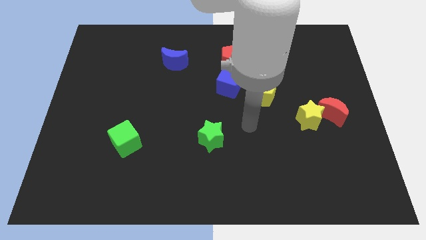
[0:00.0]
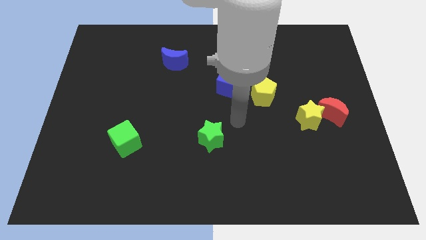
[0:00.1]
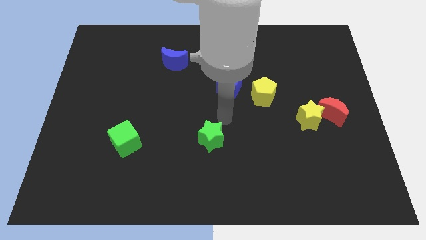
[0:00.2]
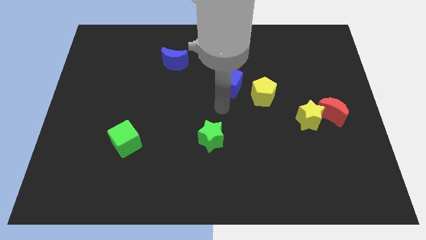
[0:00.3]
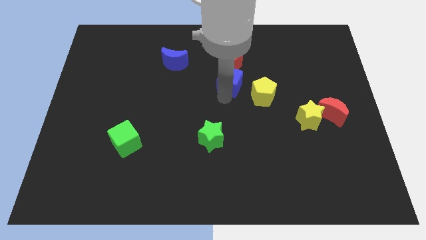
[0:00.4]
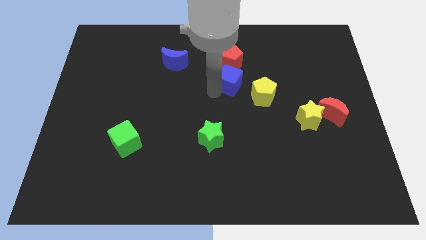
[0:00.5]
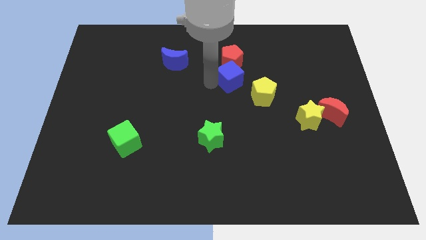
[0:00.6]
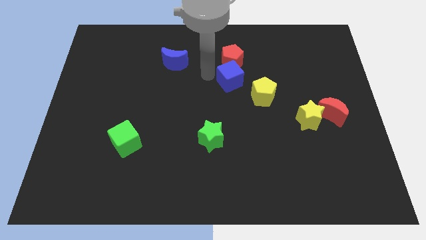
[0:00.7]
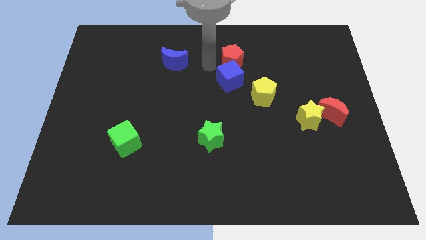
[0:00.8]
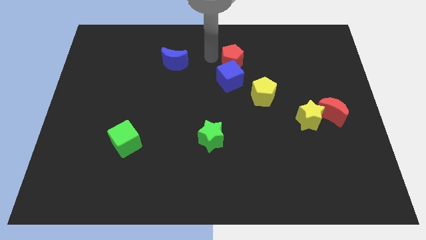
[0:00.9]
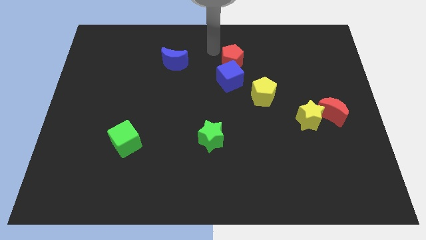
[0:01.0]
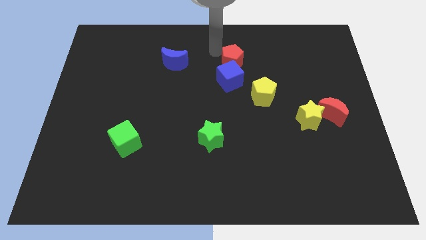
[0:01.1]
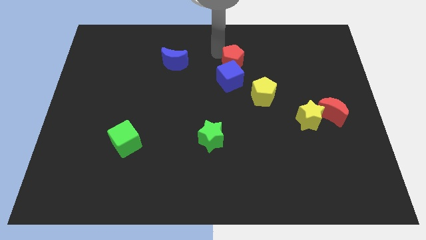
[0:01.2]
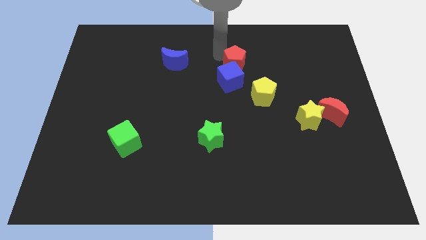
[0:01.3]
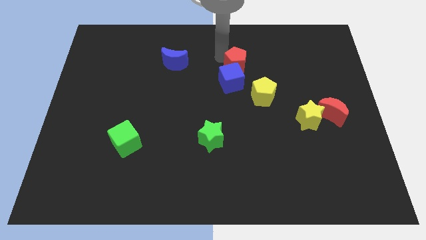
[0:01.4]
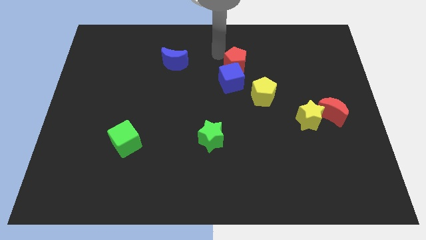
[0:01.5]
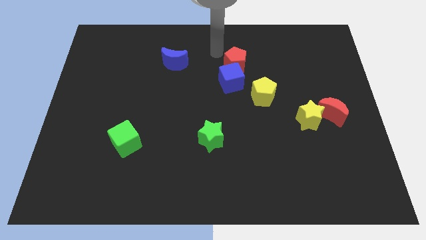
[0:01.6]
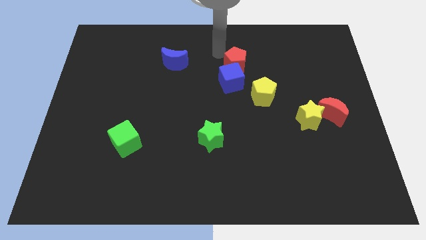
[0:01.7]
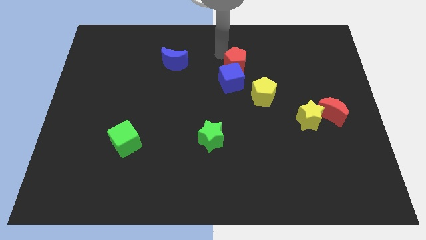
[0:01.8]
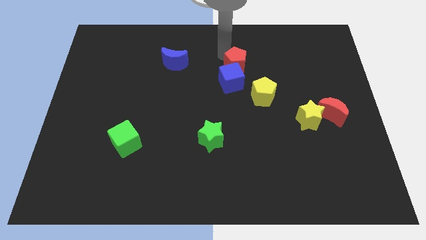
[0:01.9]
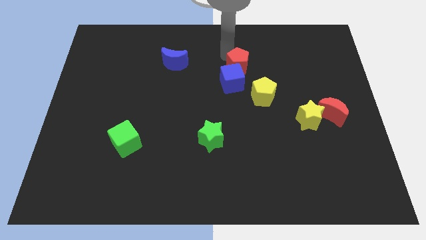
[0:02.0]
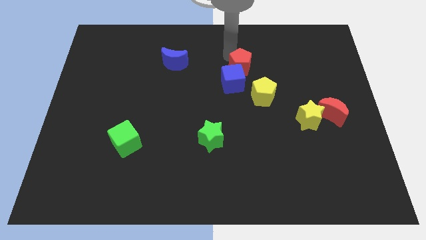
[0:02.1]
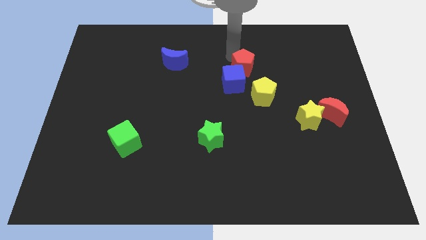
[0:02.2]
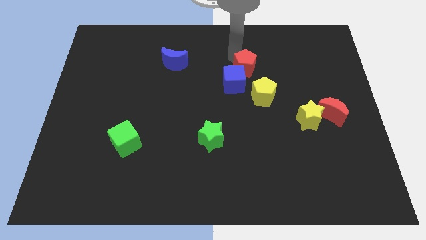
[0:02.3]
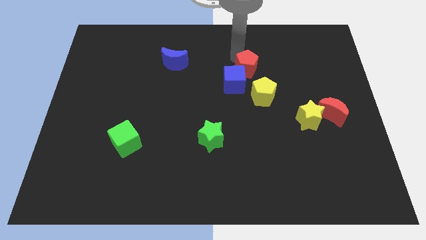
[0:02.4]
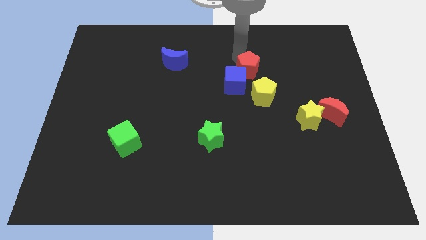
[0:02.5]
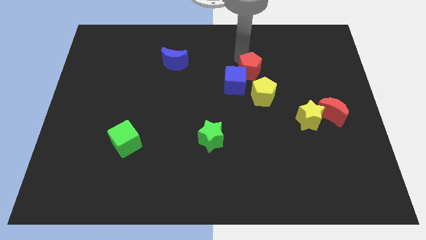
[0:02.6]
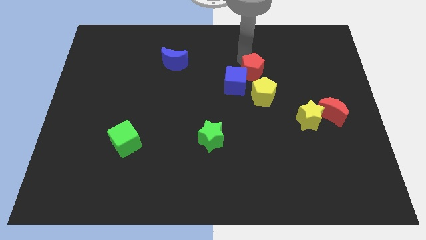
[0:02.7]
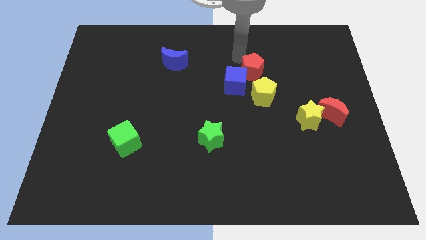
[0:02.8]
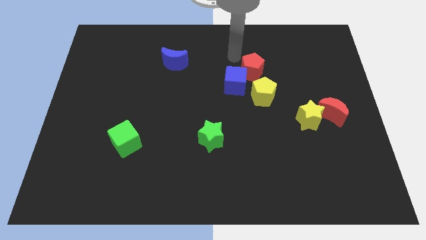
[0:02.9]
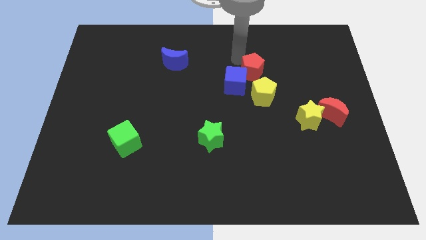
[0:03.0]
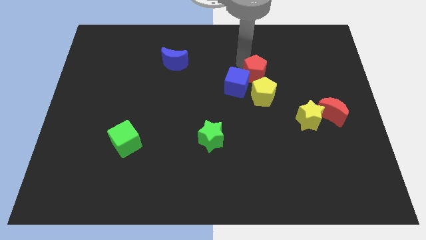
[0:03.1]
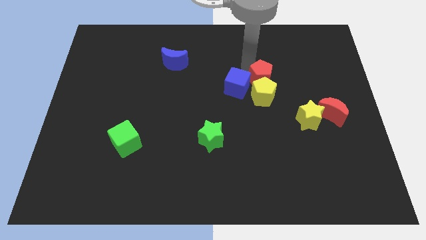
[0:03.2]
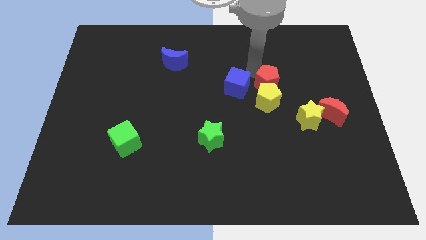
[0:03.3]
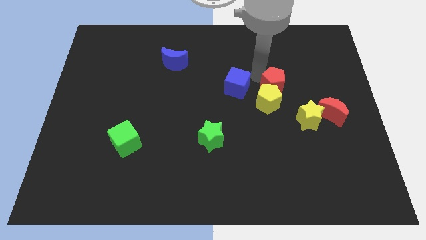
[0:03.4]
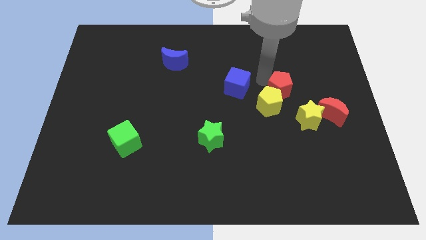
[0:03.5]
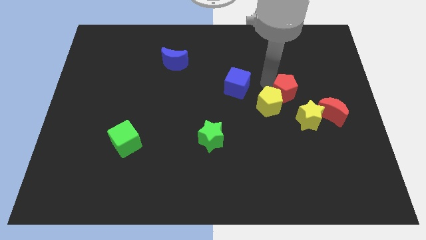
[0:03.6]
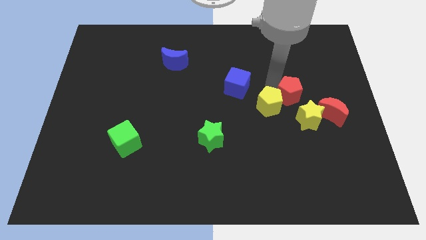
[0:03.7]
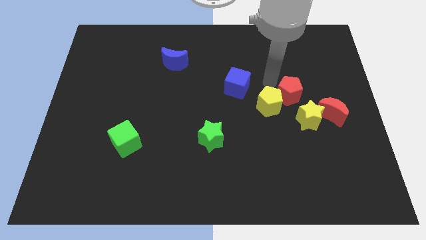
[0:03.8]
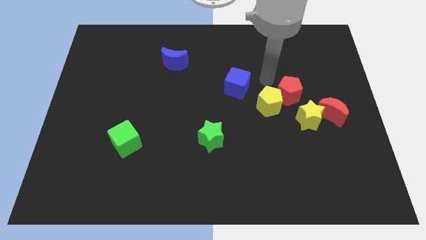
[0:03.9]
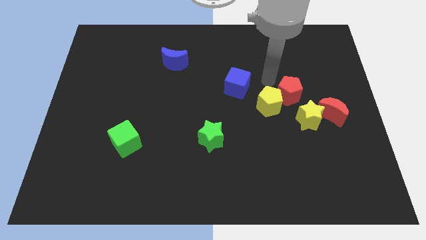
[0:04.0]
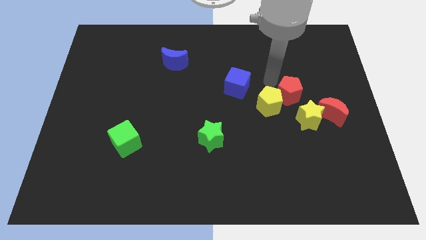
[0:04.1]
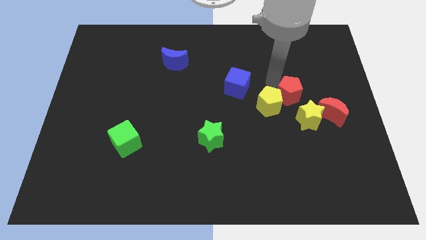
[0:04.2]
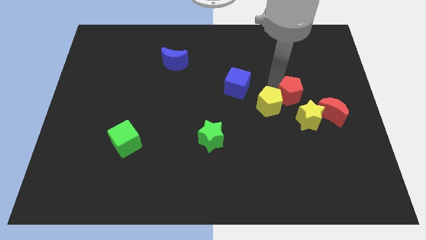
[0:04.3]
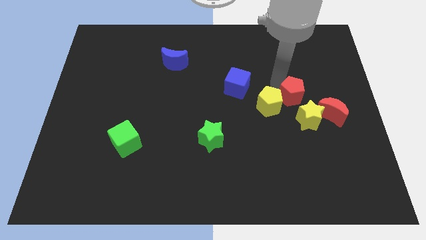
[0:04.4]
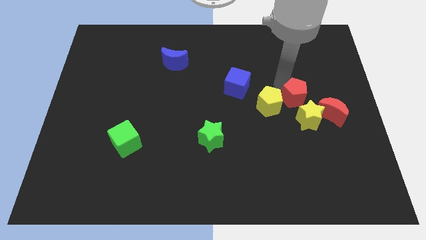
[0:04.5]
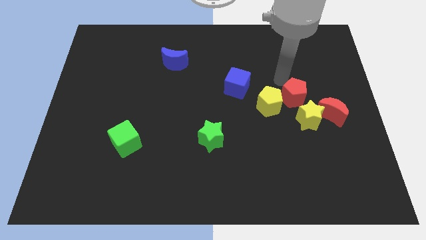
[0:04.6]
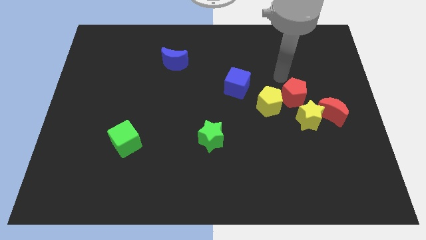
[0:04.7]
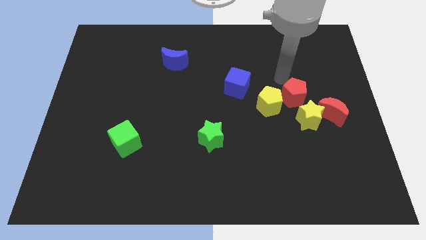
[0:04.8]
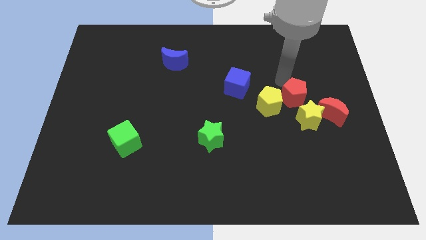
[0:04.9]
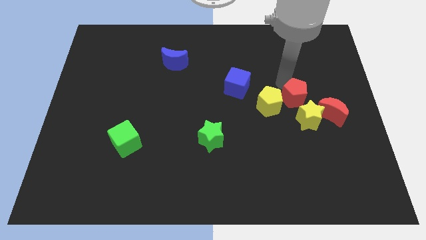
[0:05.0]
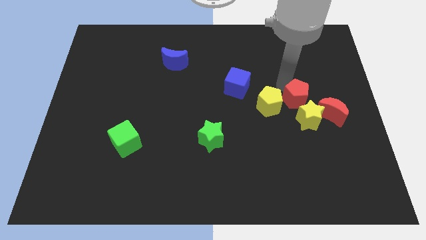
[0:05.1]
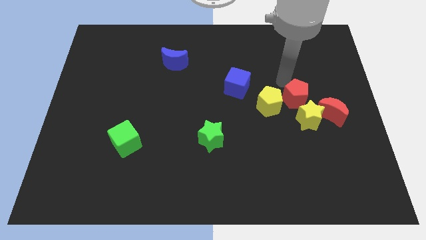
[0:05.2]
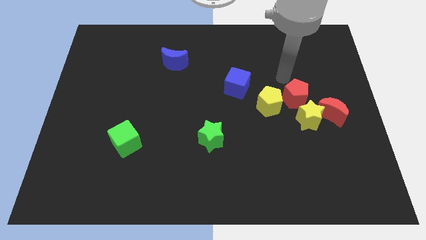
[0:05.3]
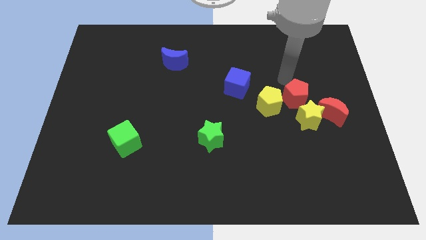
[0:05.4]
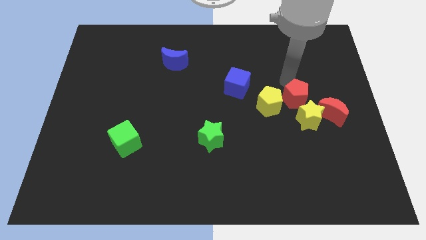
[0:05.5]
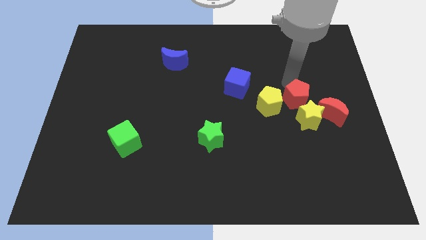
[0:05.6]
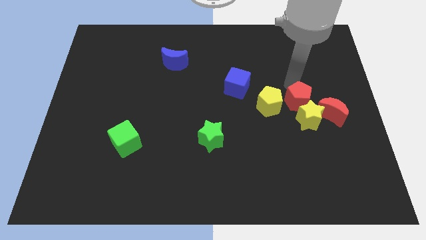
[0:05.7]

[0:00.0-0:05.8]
push the red pentagon close to the yellow star

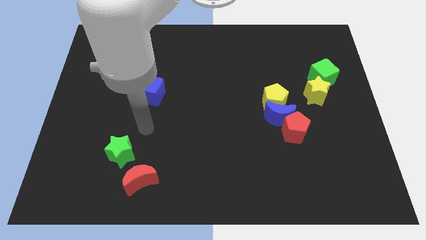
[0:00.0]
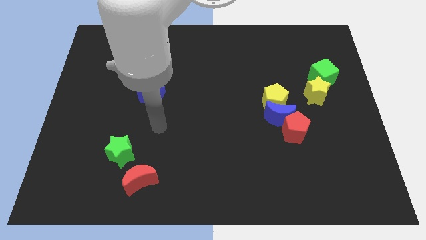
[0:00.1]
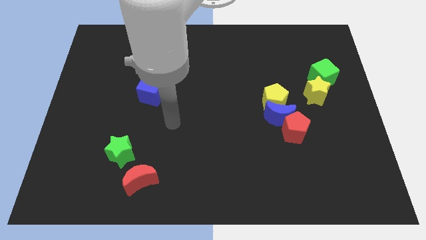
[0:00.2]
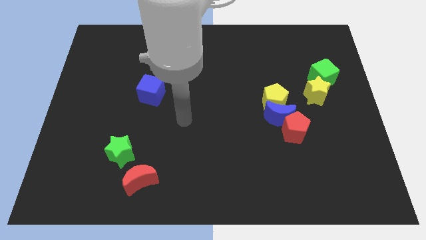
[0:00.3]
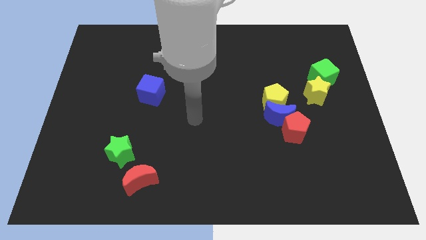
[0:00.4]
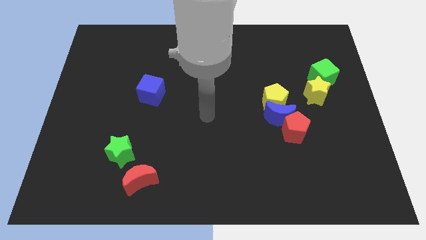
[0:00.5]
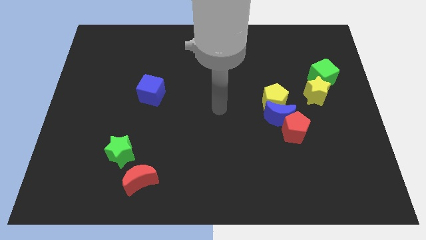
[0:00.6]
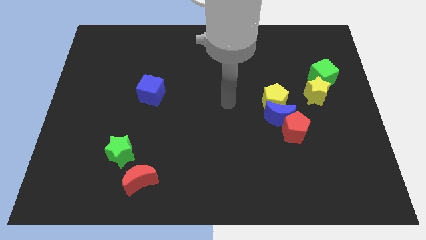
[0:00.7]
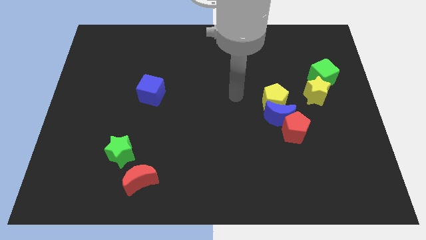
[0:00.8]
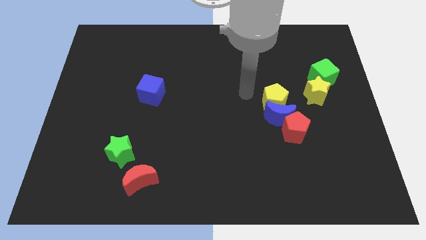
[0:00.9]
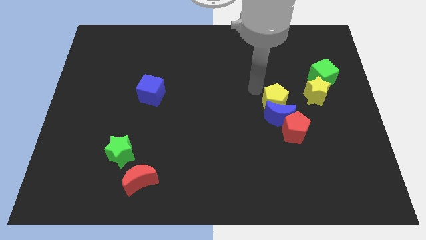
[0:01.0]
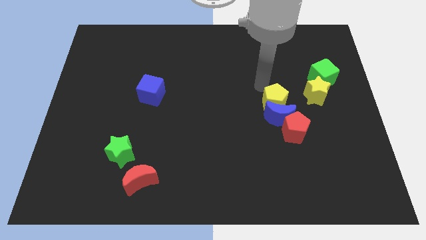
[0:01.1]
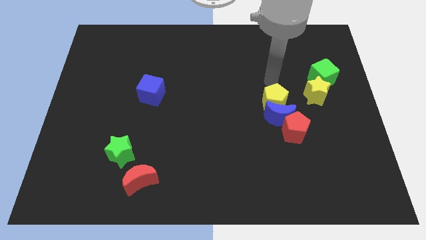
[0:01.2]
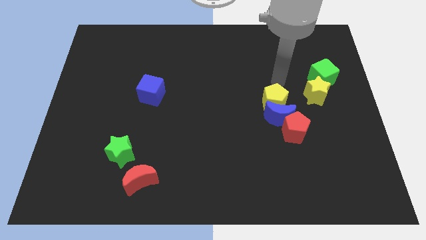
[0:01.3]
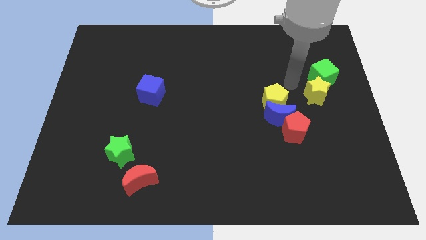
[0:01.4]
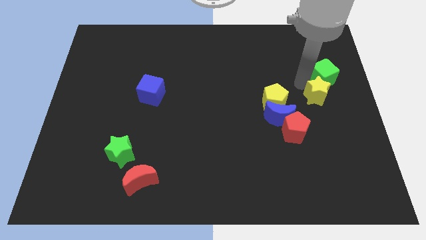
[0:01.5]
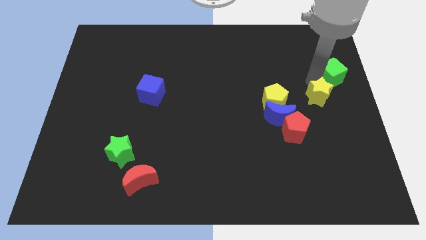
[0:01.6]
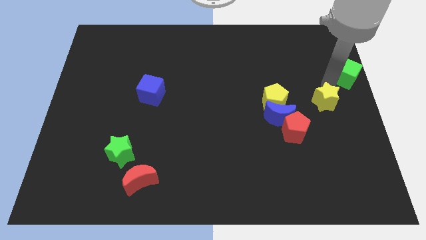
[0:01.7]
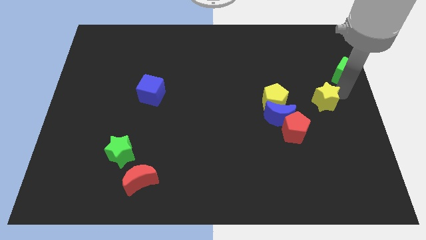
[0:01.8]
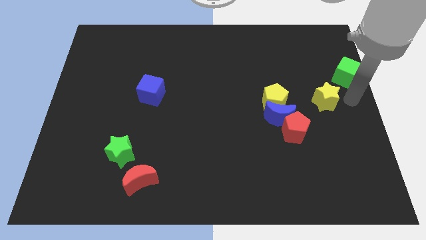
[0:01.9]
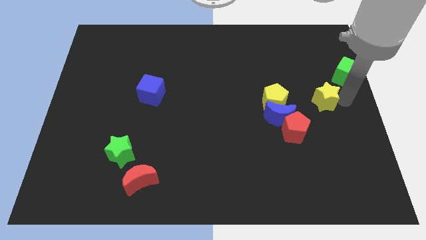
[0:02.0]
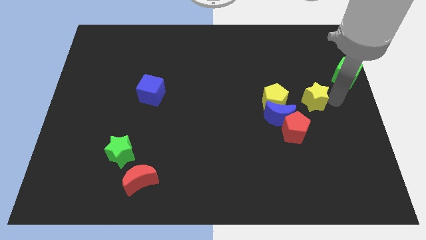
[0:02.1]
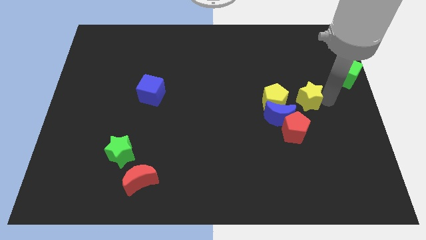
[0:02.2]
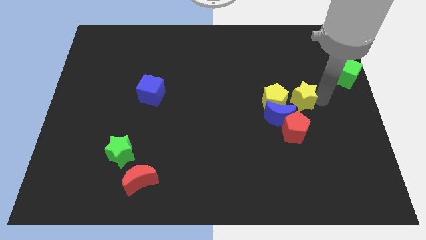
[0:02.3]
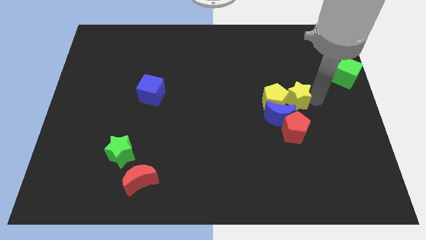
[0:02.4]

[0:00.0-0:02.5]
put the yellow star towards the yellow pentagon
